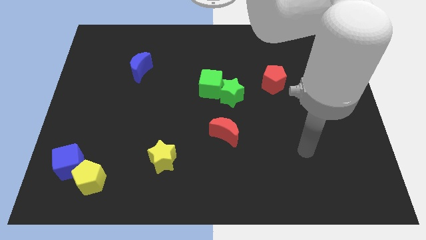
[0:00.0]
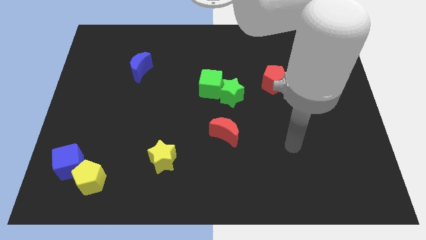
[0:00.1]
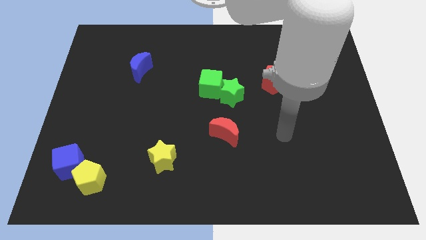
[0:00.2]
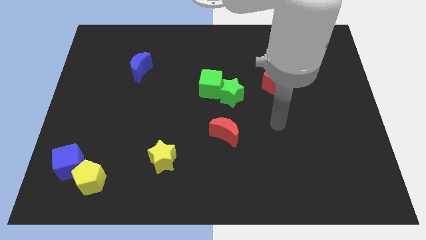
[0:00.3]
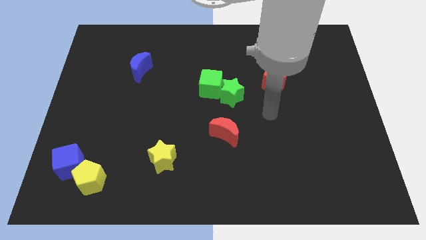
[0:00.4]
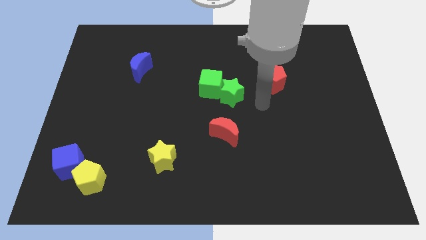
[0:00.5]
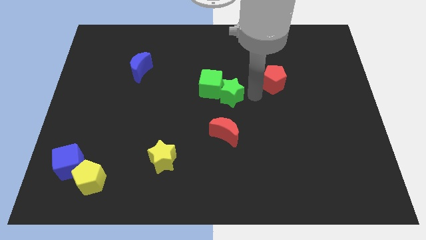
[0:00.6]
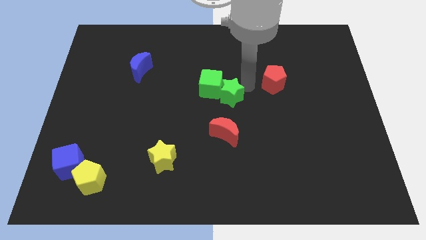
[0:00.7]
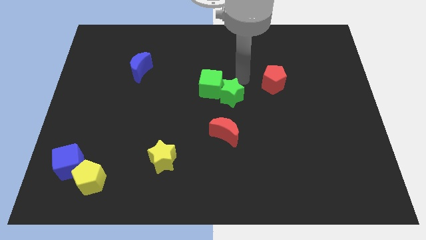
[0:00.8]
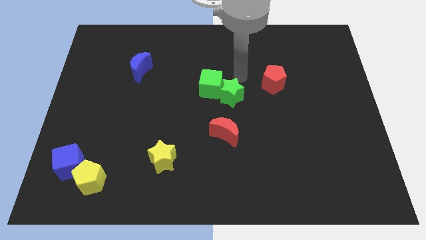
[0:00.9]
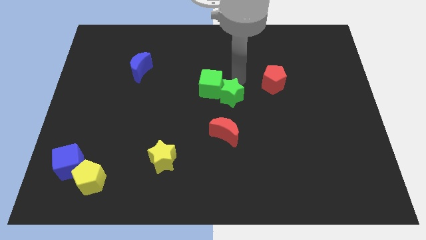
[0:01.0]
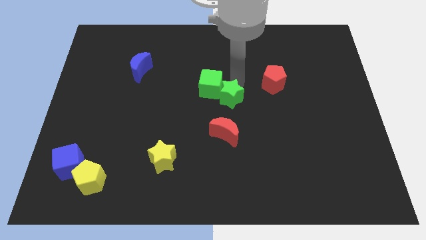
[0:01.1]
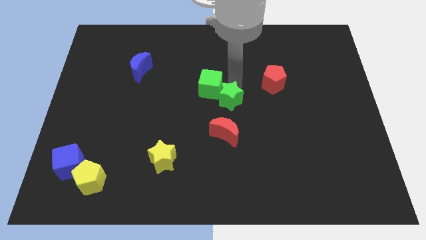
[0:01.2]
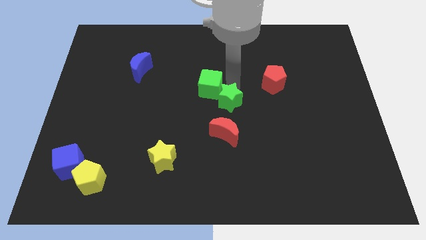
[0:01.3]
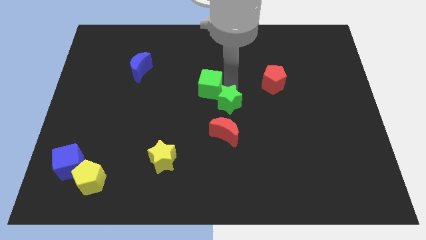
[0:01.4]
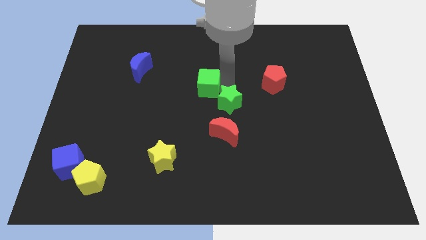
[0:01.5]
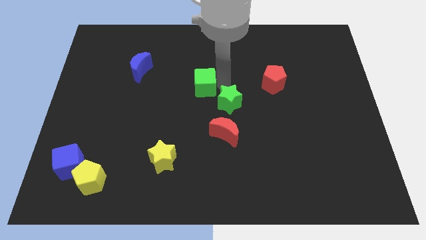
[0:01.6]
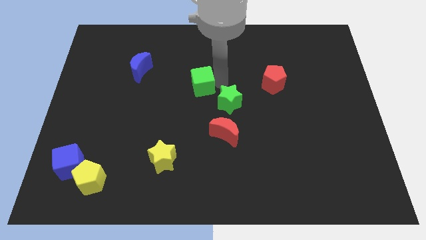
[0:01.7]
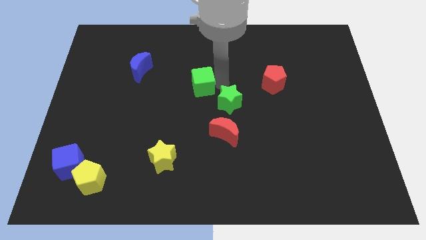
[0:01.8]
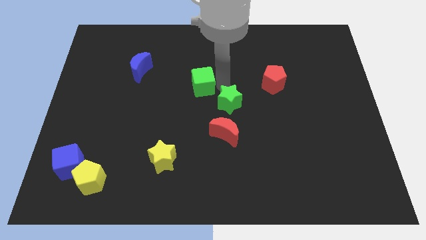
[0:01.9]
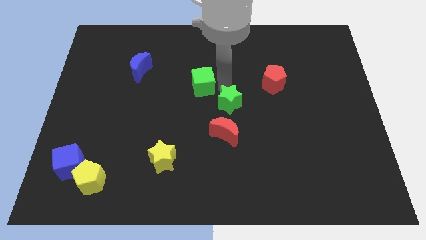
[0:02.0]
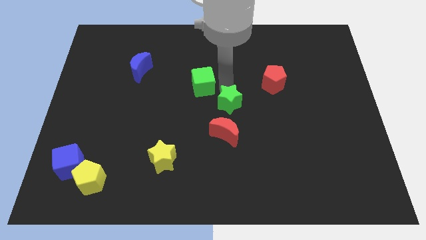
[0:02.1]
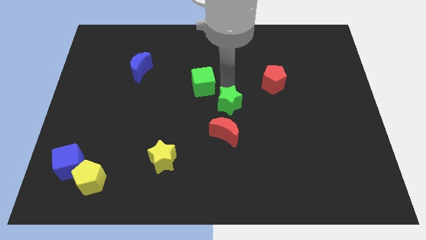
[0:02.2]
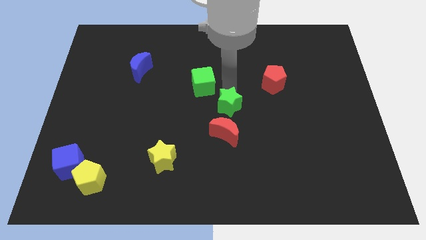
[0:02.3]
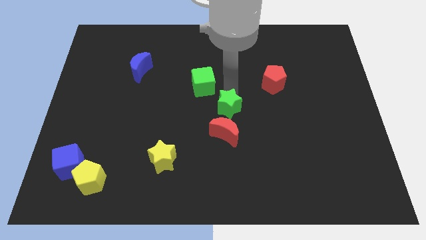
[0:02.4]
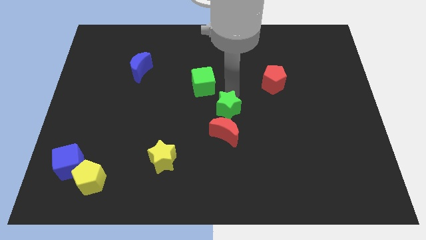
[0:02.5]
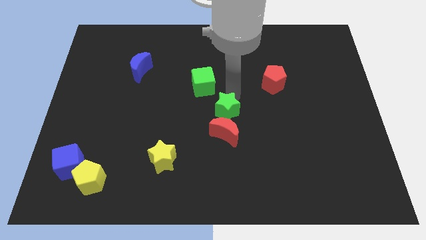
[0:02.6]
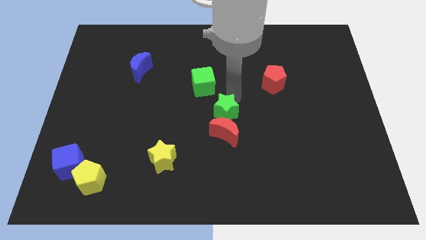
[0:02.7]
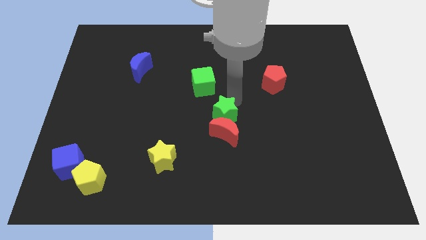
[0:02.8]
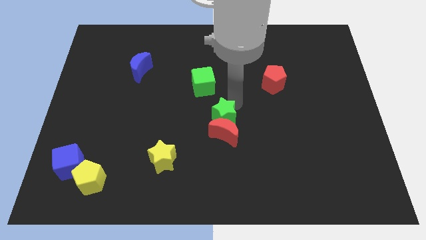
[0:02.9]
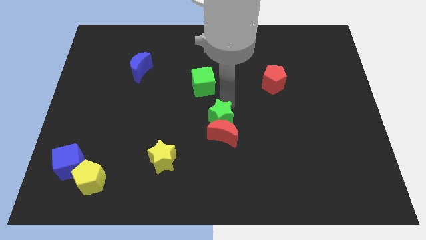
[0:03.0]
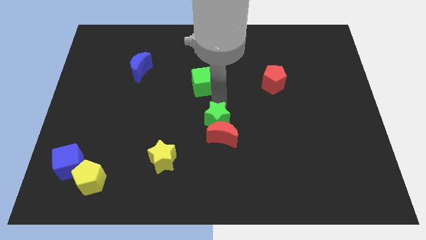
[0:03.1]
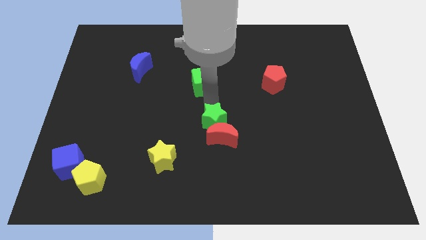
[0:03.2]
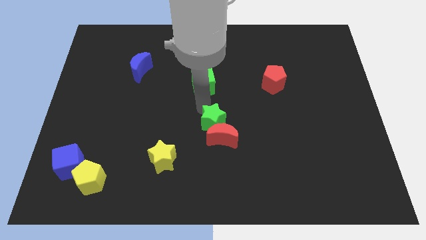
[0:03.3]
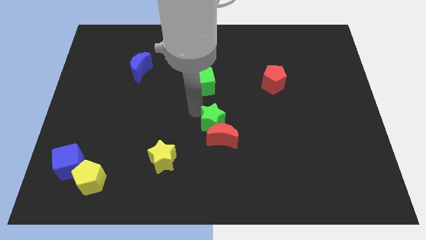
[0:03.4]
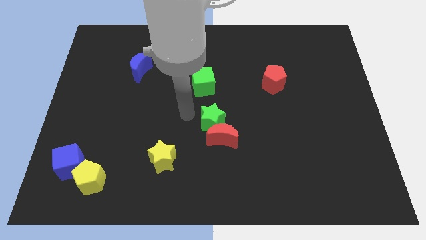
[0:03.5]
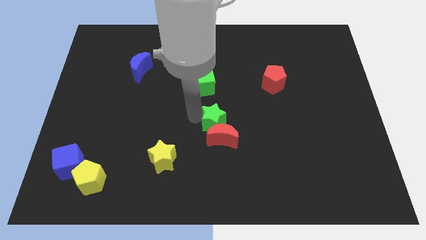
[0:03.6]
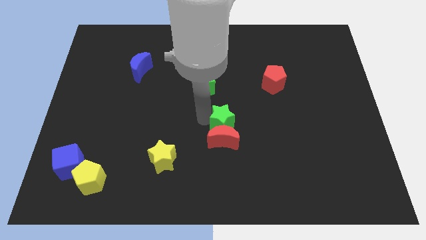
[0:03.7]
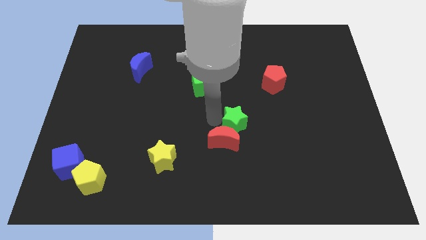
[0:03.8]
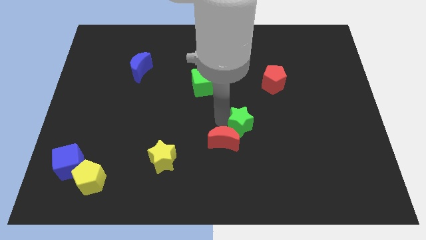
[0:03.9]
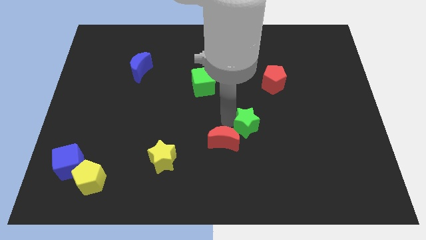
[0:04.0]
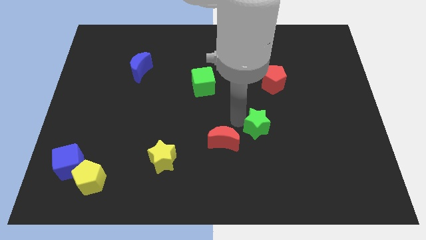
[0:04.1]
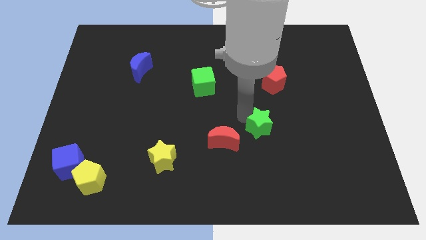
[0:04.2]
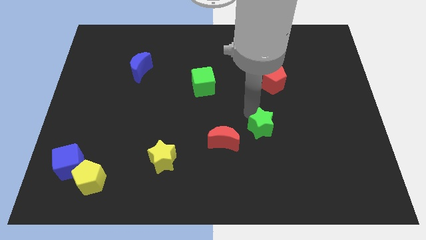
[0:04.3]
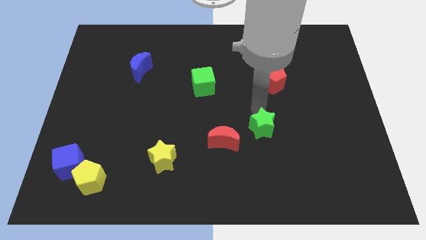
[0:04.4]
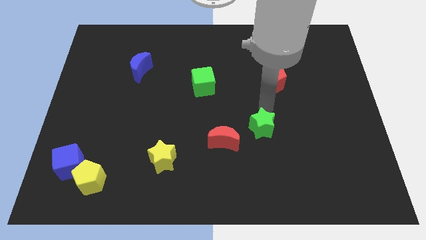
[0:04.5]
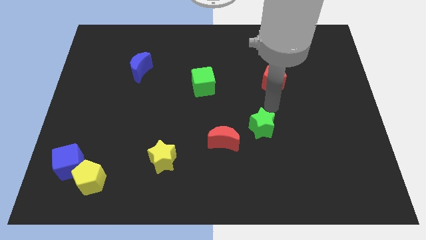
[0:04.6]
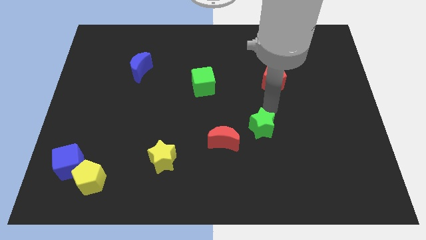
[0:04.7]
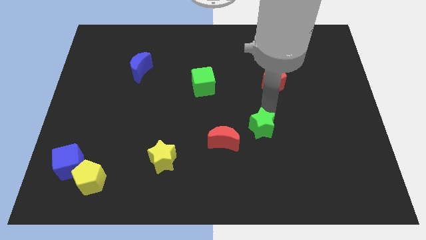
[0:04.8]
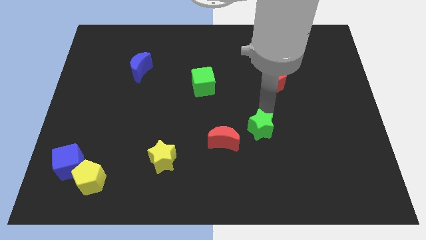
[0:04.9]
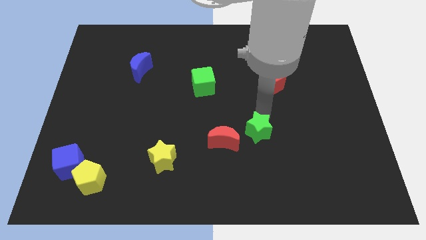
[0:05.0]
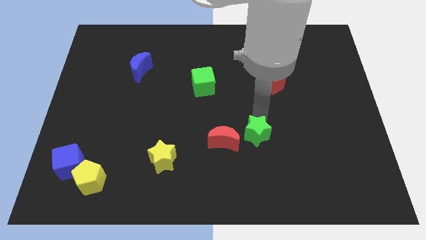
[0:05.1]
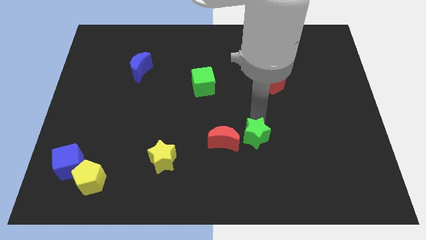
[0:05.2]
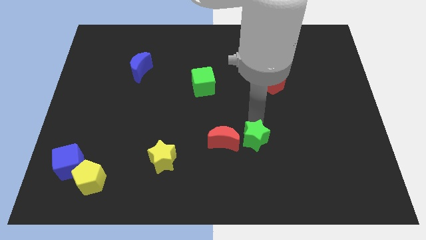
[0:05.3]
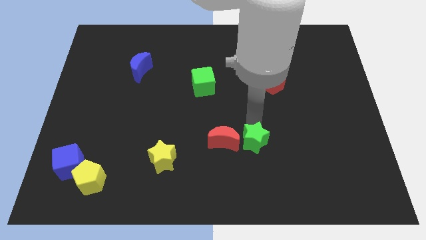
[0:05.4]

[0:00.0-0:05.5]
push the green star to the bottom right of the red moon

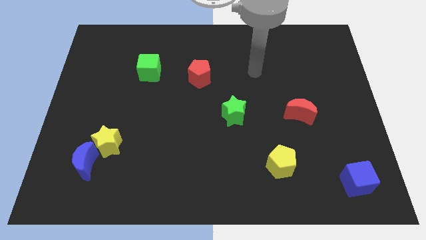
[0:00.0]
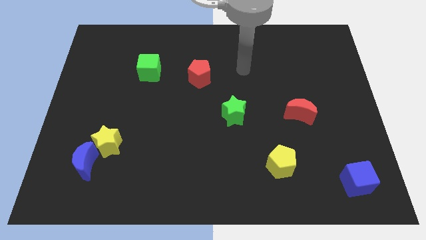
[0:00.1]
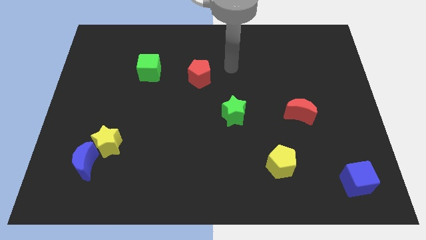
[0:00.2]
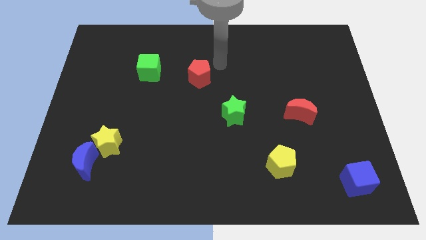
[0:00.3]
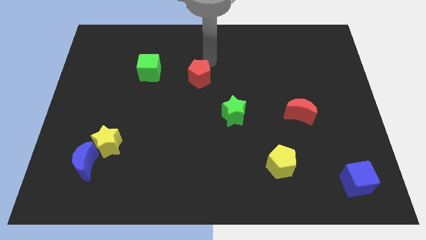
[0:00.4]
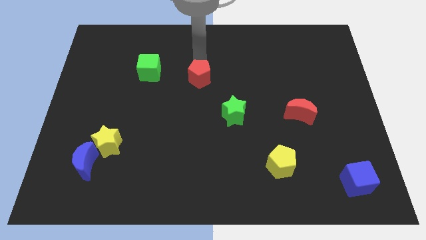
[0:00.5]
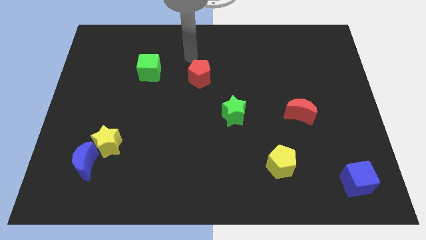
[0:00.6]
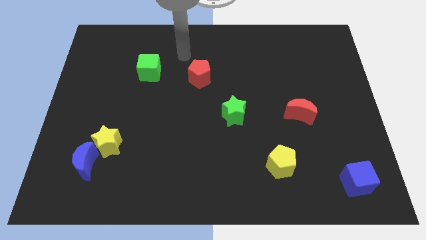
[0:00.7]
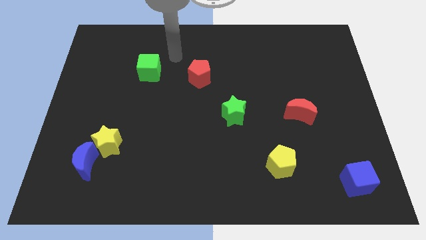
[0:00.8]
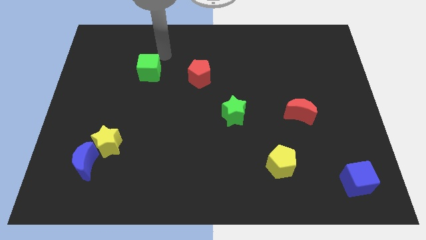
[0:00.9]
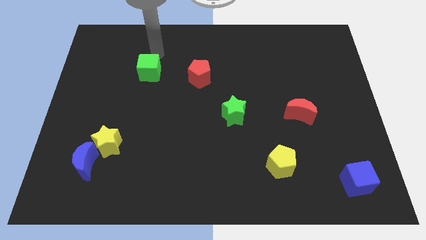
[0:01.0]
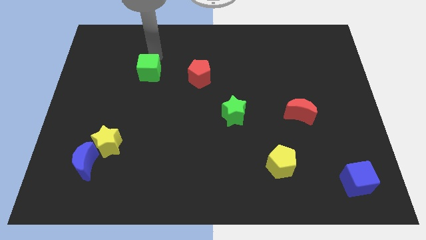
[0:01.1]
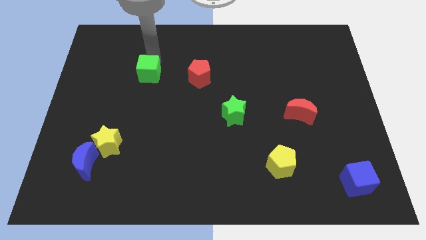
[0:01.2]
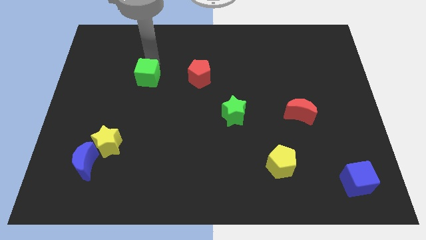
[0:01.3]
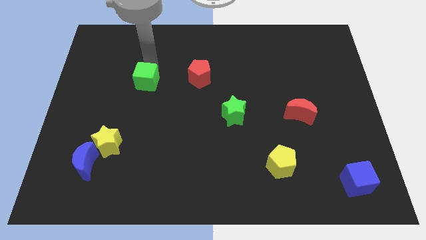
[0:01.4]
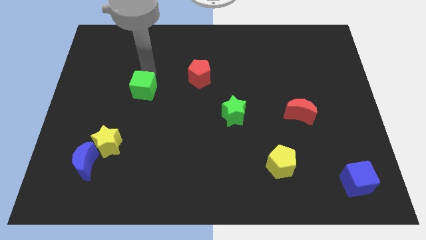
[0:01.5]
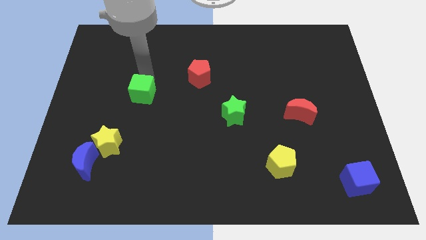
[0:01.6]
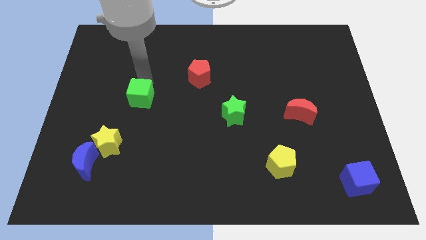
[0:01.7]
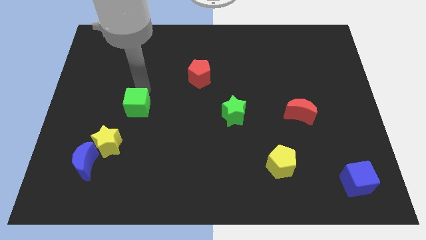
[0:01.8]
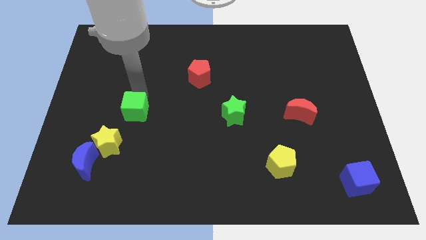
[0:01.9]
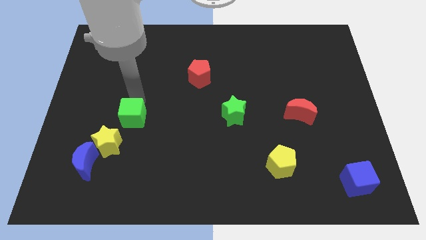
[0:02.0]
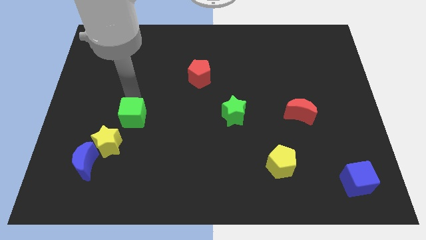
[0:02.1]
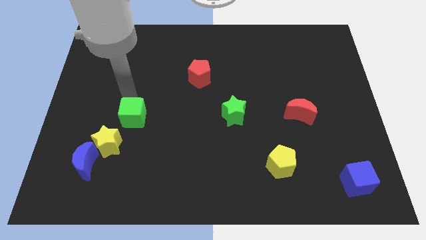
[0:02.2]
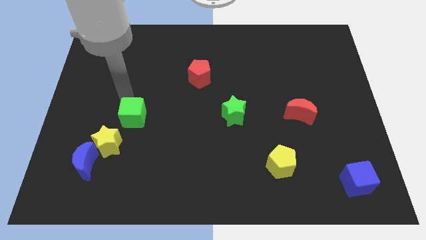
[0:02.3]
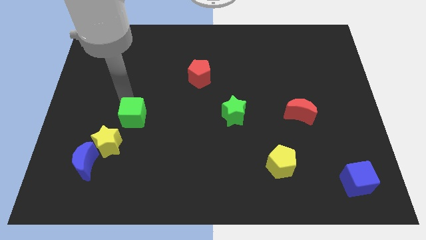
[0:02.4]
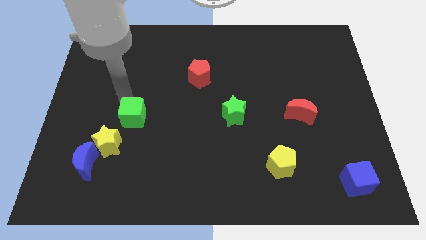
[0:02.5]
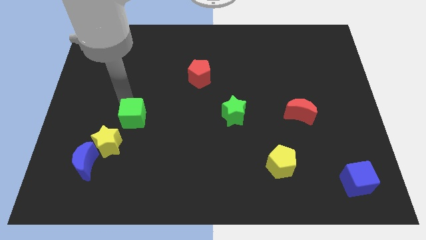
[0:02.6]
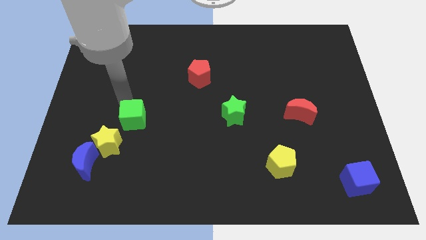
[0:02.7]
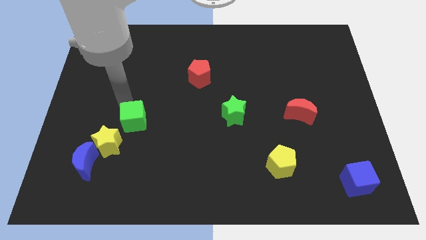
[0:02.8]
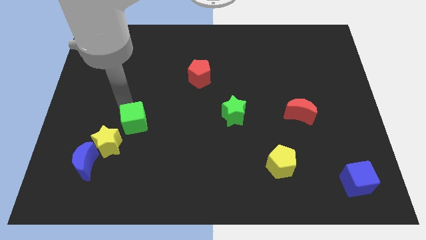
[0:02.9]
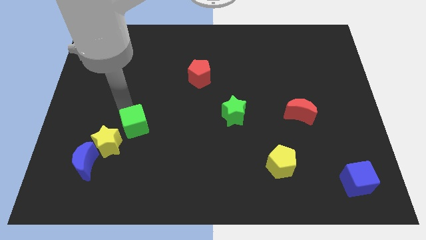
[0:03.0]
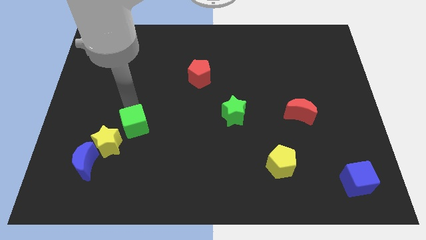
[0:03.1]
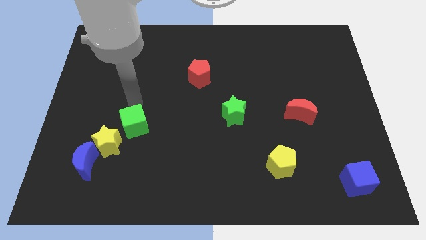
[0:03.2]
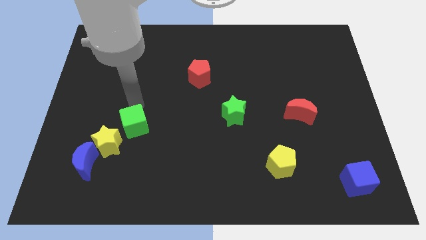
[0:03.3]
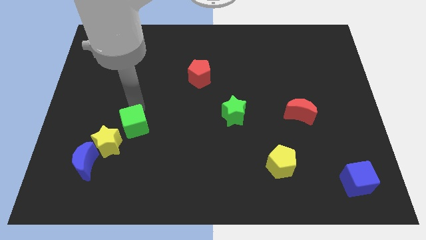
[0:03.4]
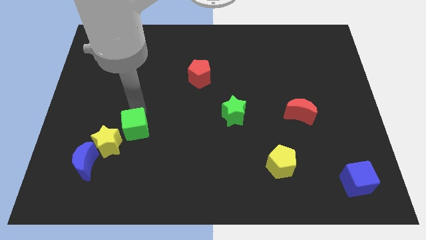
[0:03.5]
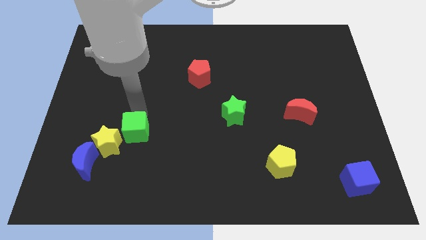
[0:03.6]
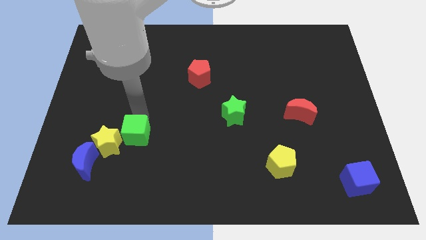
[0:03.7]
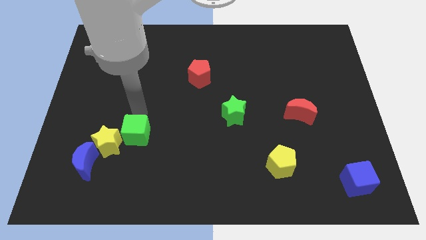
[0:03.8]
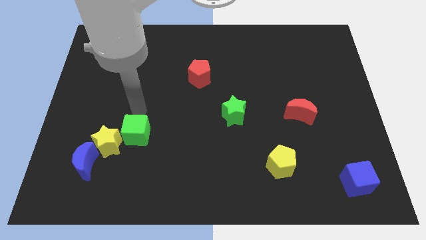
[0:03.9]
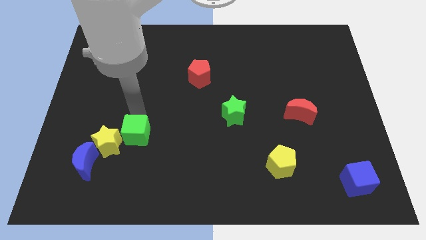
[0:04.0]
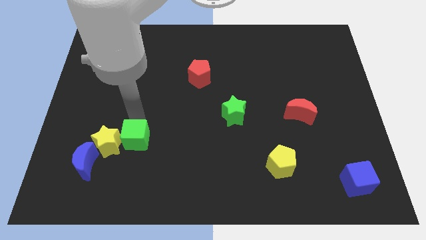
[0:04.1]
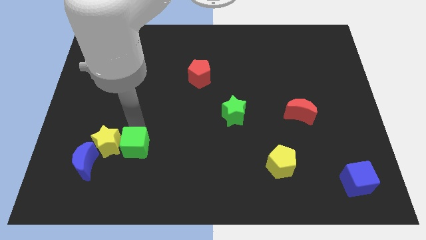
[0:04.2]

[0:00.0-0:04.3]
push the green cube to the right side of the blue moon
